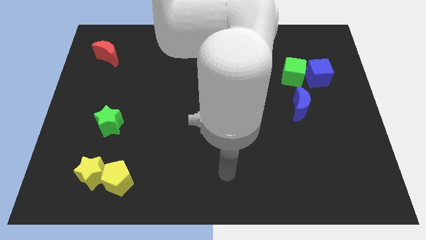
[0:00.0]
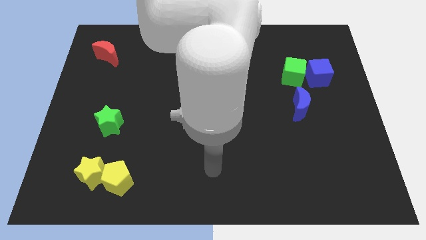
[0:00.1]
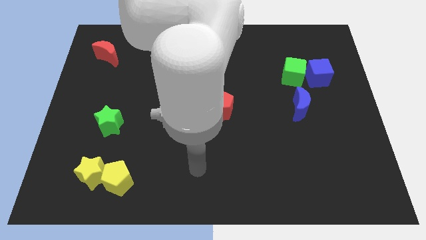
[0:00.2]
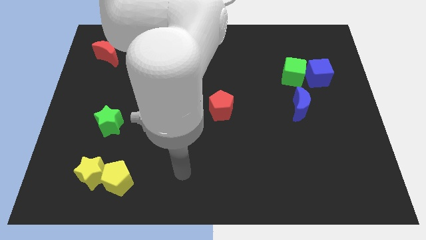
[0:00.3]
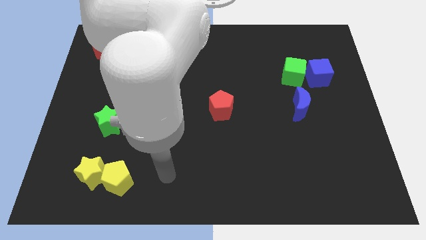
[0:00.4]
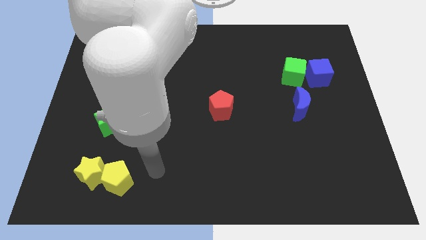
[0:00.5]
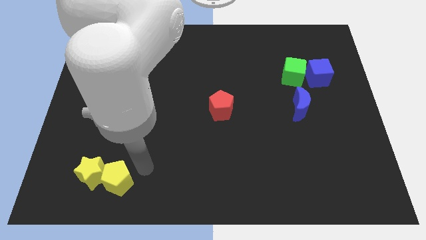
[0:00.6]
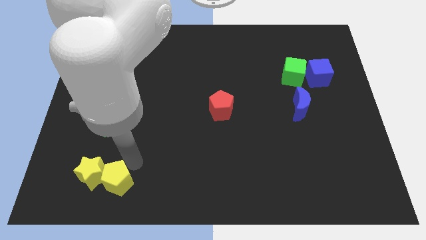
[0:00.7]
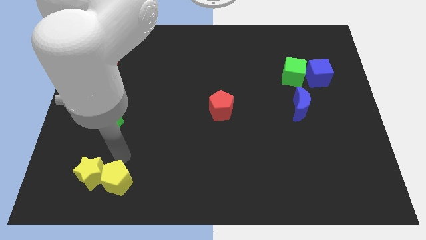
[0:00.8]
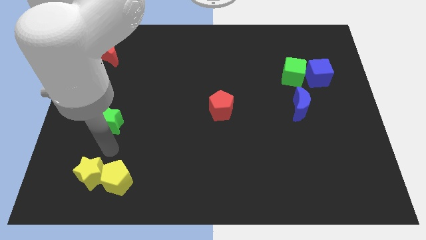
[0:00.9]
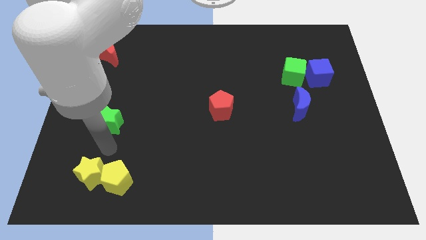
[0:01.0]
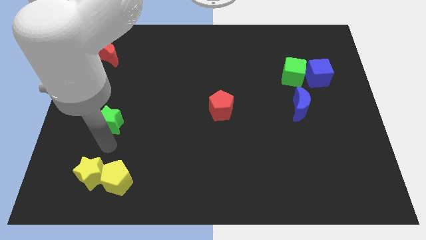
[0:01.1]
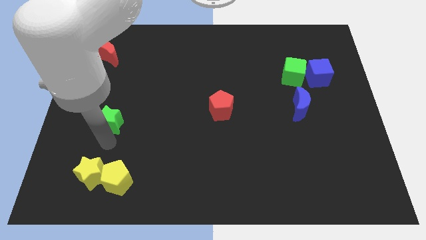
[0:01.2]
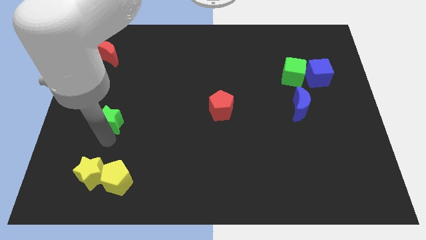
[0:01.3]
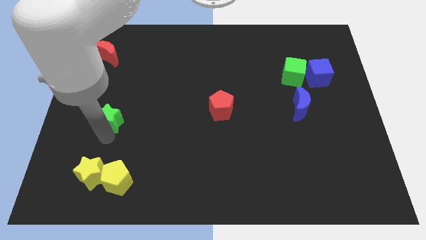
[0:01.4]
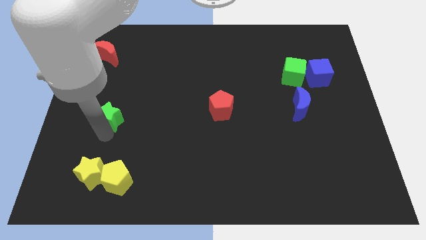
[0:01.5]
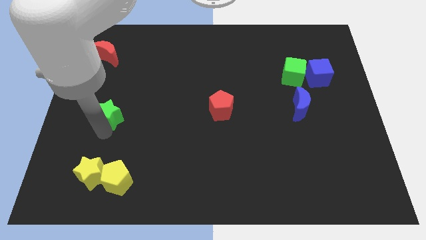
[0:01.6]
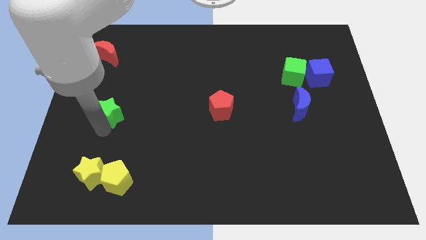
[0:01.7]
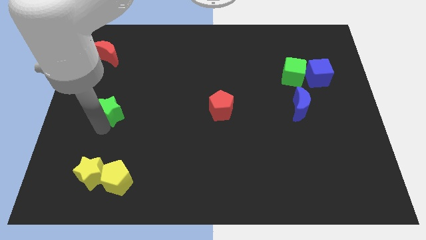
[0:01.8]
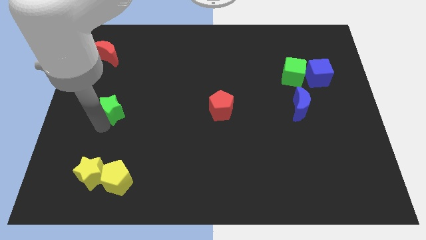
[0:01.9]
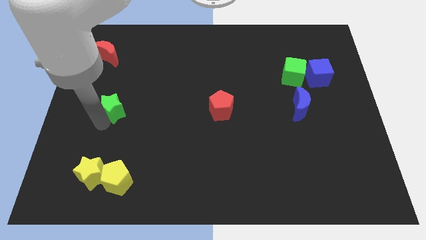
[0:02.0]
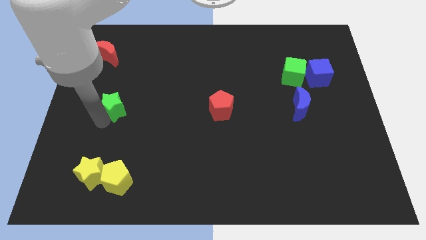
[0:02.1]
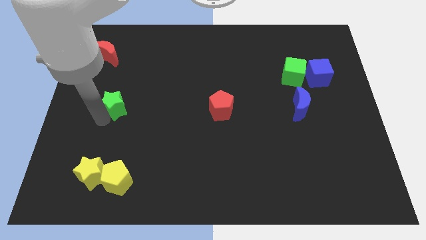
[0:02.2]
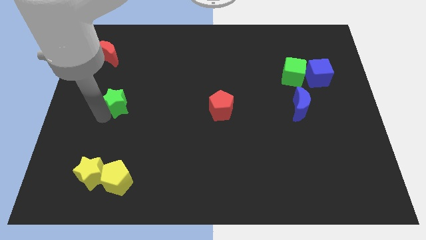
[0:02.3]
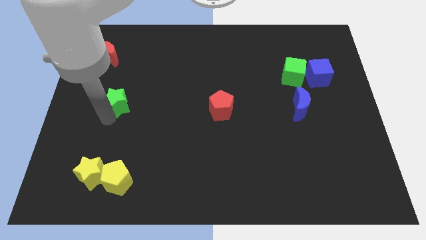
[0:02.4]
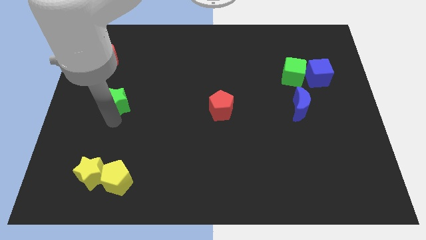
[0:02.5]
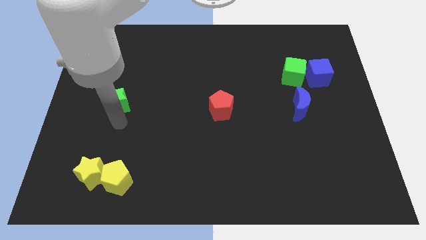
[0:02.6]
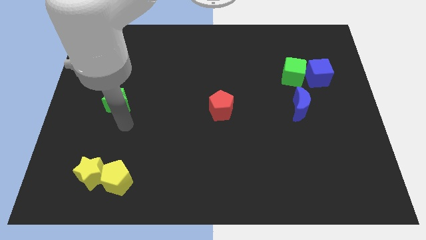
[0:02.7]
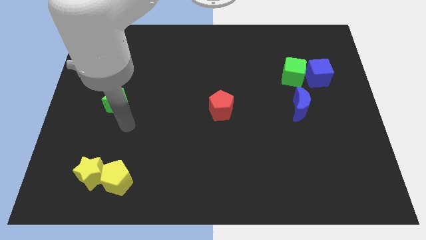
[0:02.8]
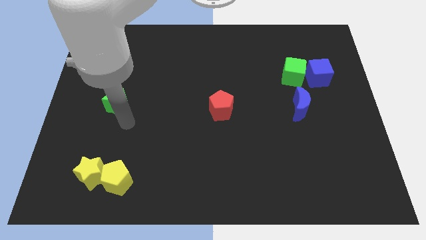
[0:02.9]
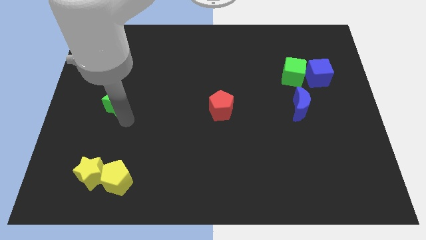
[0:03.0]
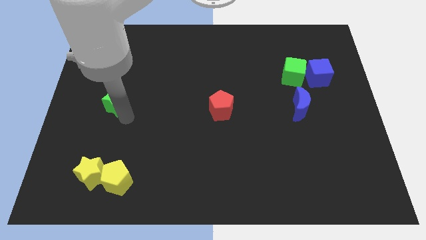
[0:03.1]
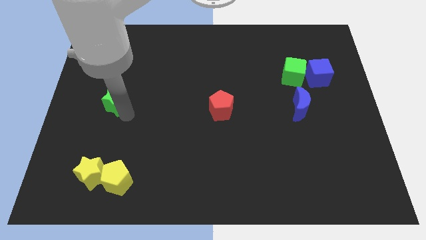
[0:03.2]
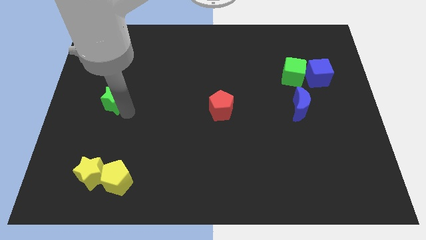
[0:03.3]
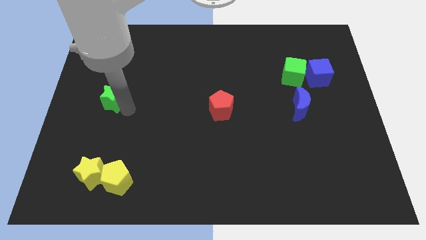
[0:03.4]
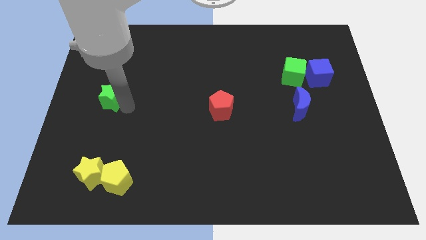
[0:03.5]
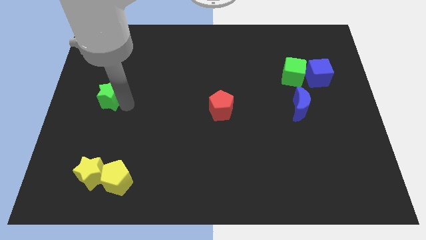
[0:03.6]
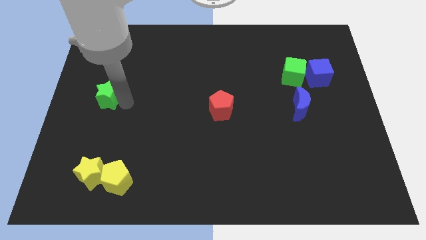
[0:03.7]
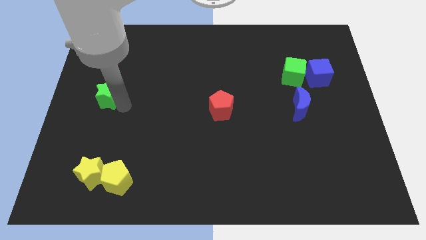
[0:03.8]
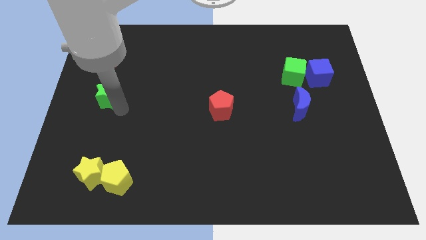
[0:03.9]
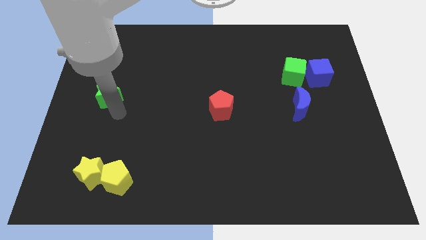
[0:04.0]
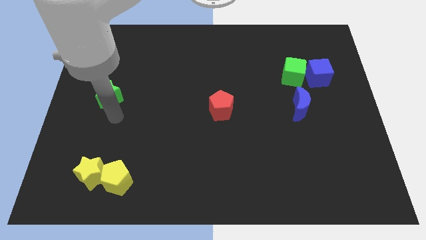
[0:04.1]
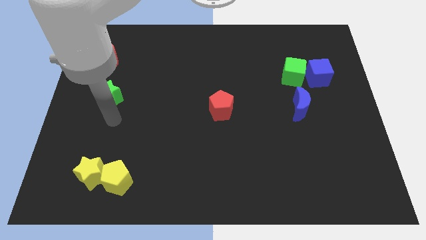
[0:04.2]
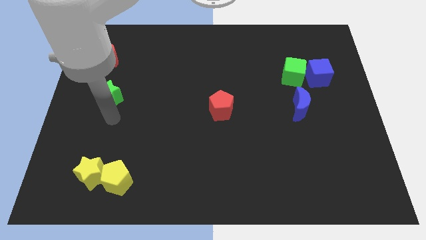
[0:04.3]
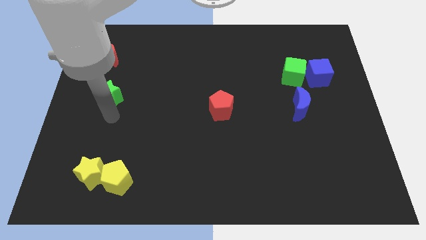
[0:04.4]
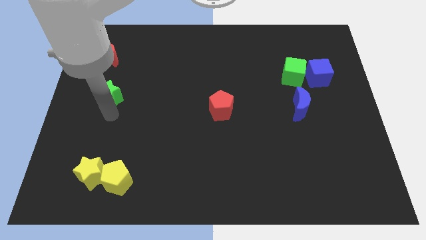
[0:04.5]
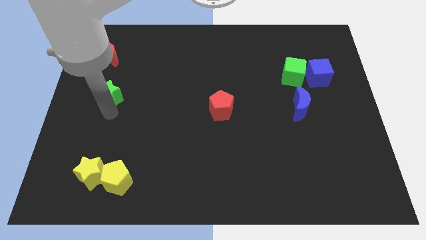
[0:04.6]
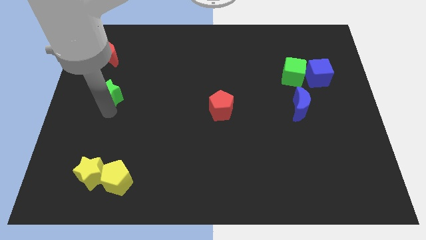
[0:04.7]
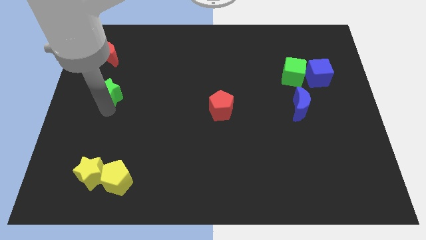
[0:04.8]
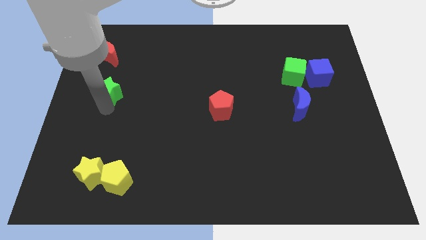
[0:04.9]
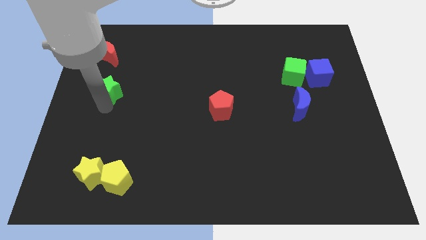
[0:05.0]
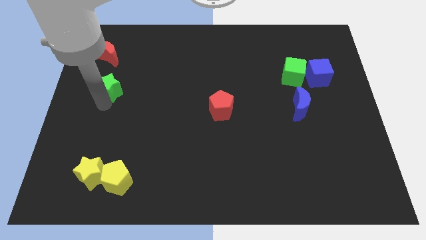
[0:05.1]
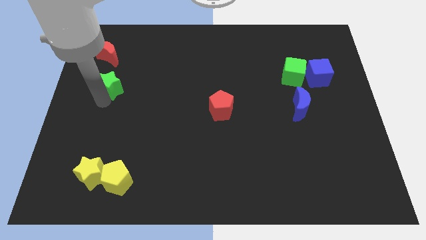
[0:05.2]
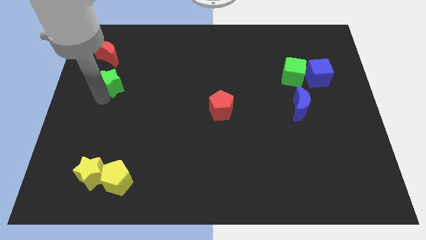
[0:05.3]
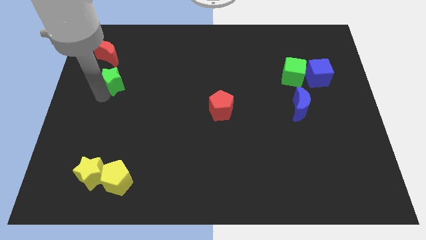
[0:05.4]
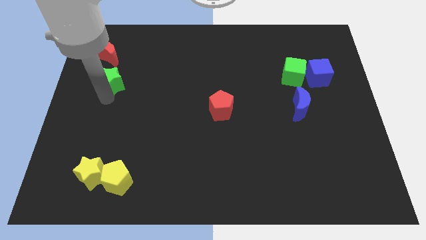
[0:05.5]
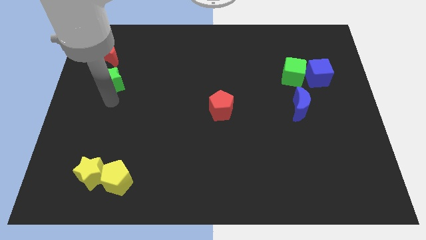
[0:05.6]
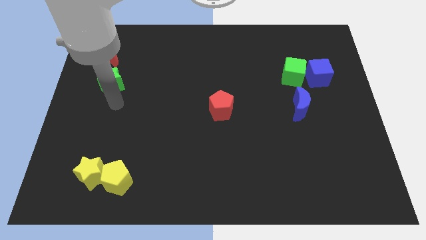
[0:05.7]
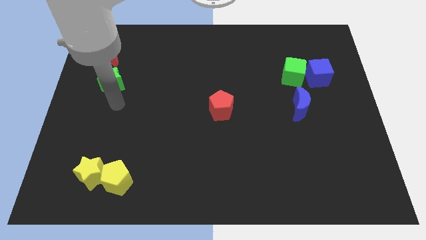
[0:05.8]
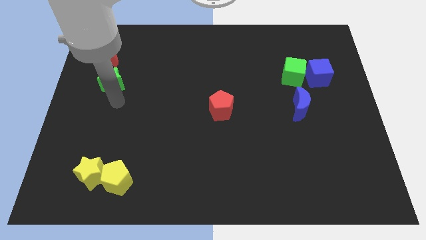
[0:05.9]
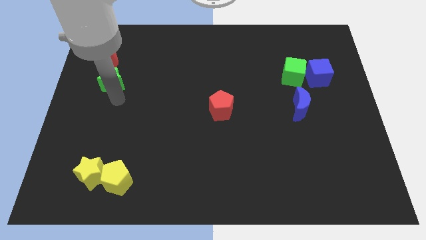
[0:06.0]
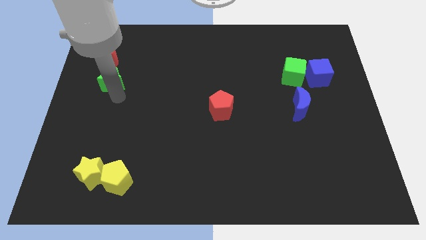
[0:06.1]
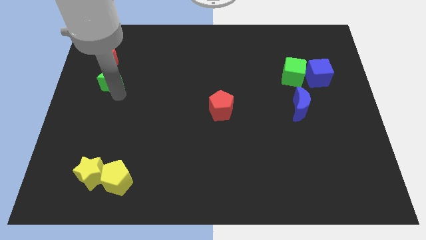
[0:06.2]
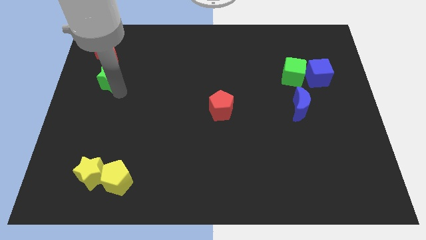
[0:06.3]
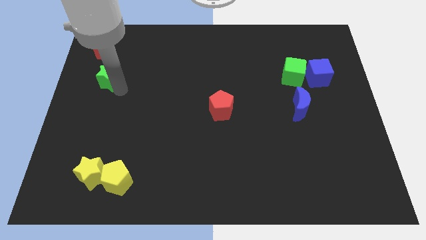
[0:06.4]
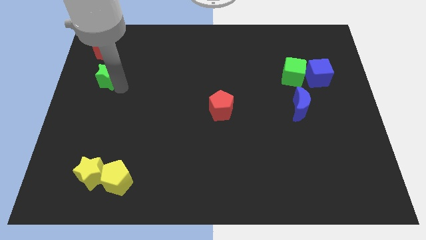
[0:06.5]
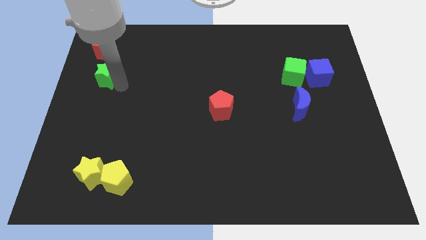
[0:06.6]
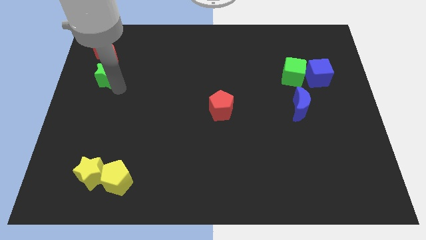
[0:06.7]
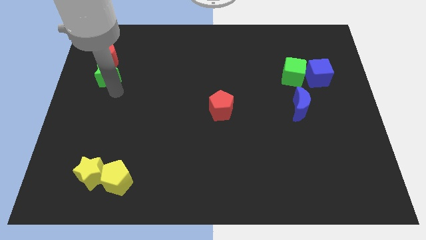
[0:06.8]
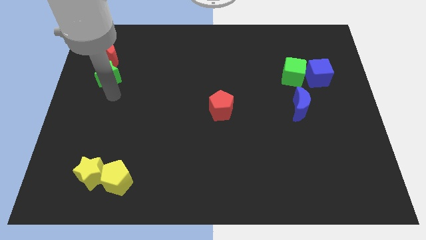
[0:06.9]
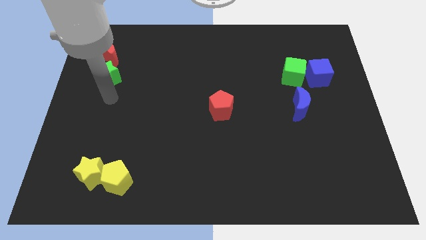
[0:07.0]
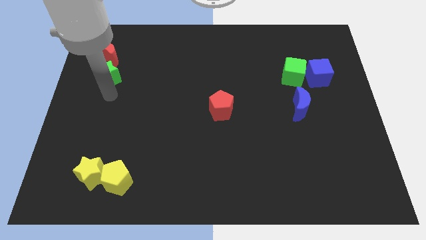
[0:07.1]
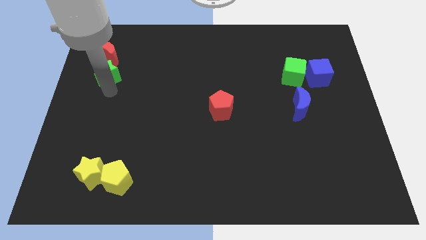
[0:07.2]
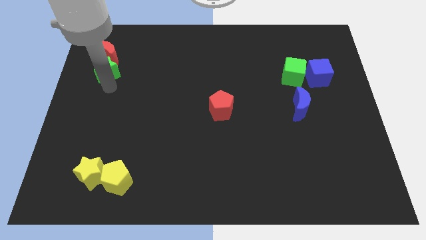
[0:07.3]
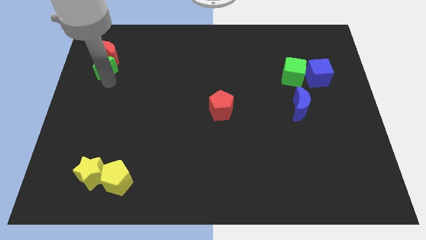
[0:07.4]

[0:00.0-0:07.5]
move the green star to the red moon
